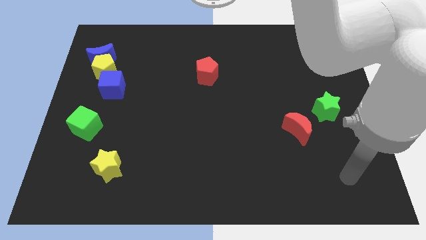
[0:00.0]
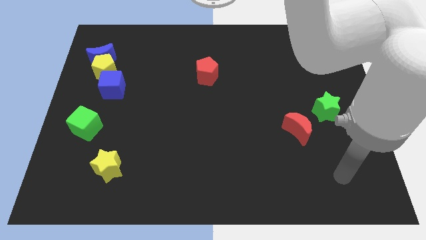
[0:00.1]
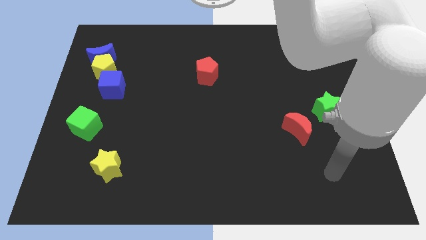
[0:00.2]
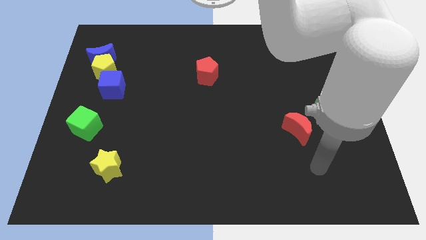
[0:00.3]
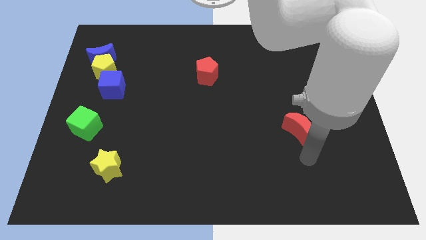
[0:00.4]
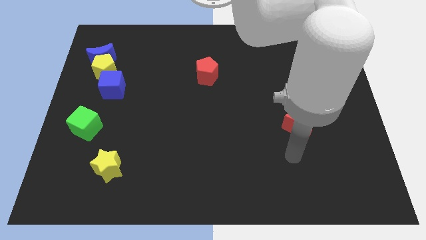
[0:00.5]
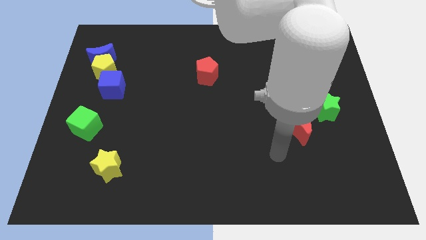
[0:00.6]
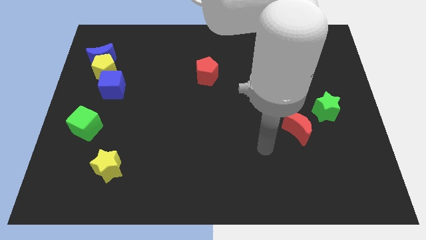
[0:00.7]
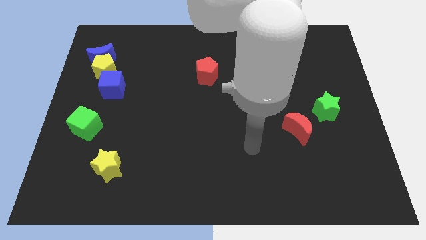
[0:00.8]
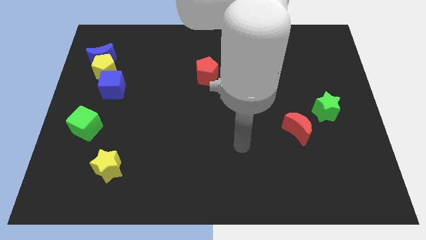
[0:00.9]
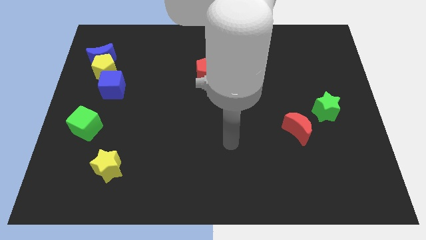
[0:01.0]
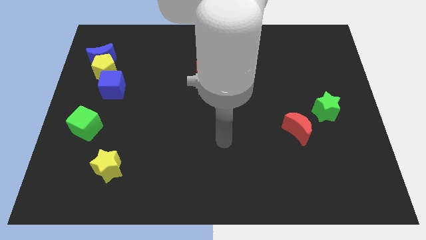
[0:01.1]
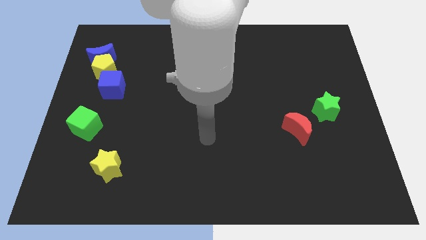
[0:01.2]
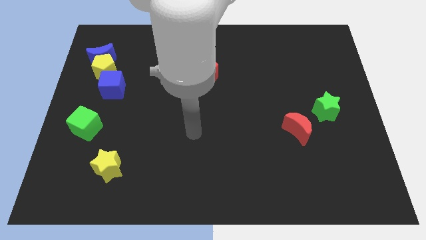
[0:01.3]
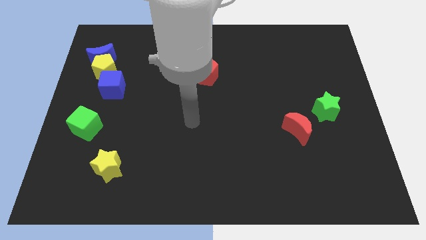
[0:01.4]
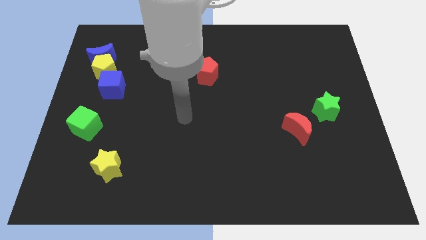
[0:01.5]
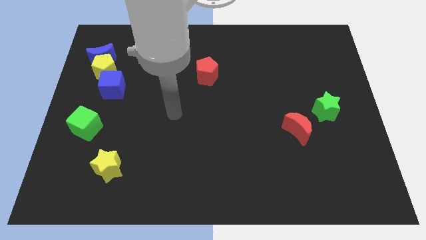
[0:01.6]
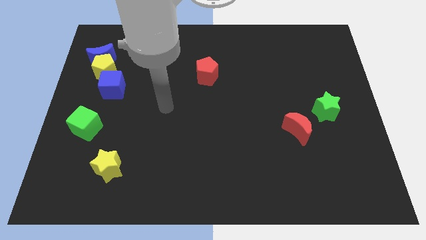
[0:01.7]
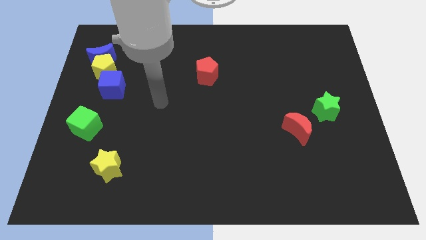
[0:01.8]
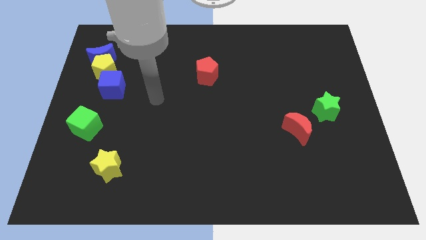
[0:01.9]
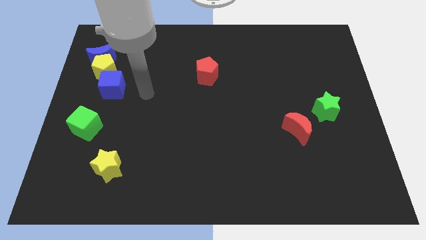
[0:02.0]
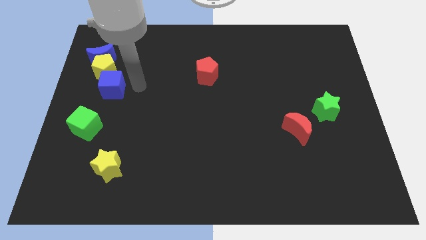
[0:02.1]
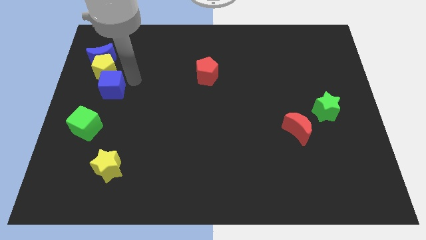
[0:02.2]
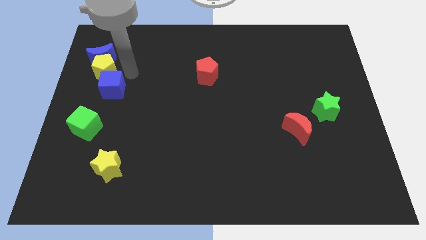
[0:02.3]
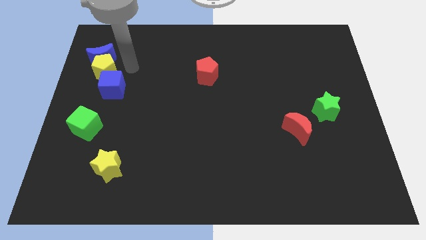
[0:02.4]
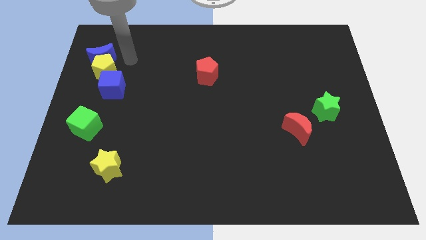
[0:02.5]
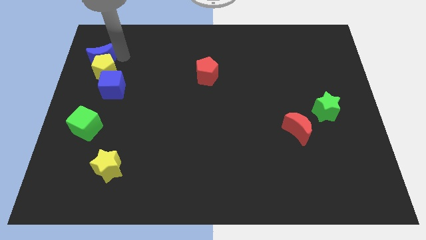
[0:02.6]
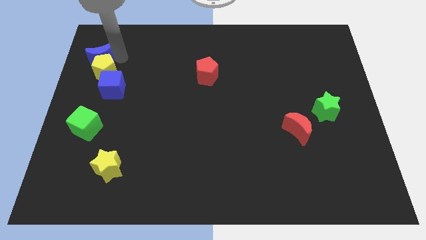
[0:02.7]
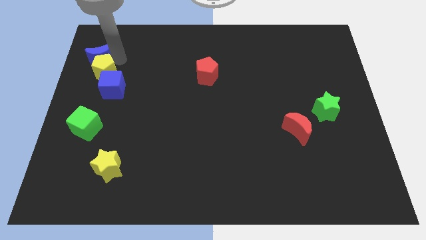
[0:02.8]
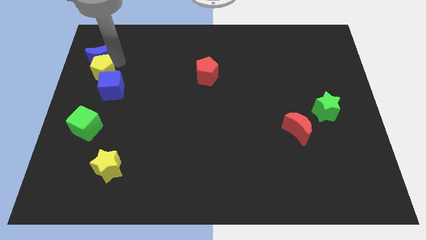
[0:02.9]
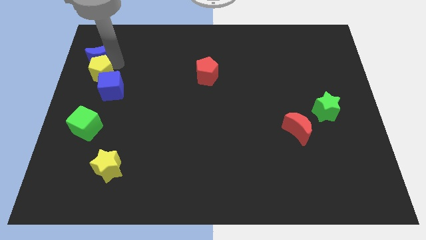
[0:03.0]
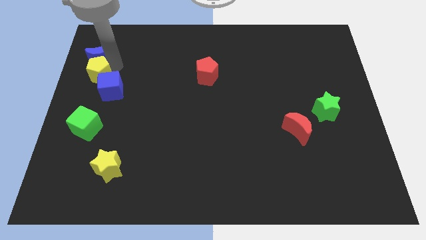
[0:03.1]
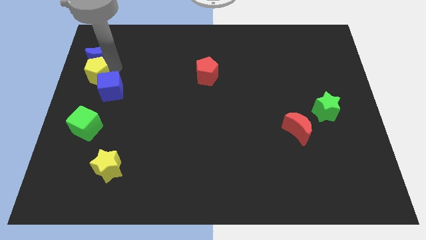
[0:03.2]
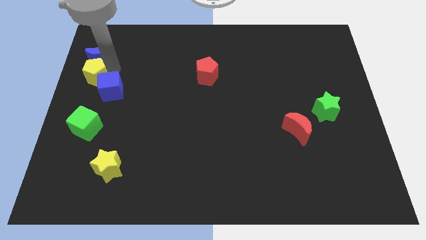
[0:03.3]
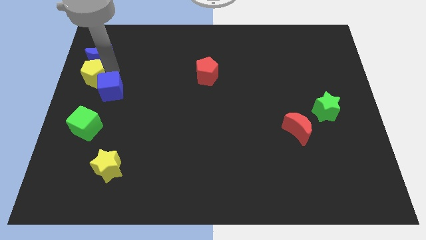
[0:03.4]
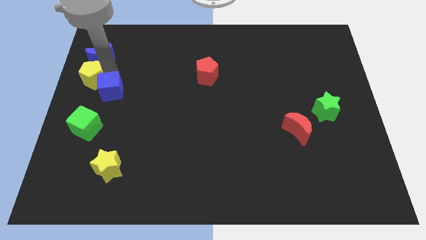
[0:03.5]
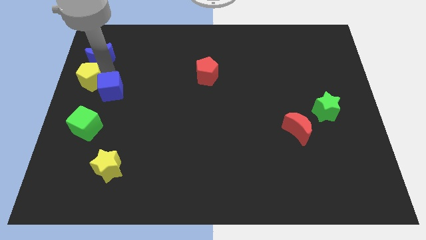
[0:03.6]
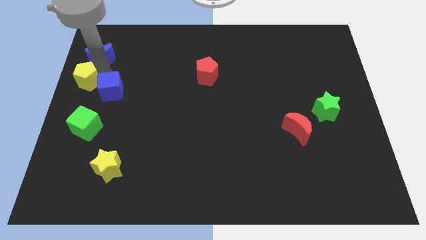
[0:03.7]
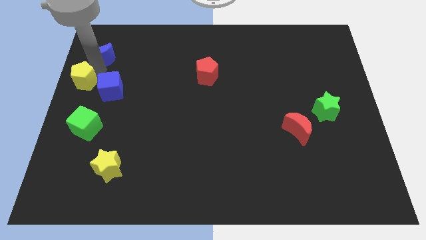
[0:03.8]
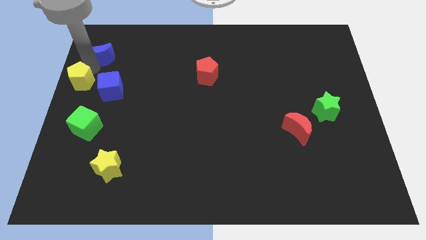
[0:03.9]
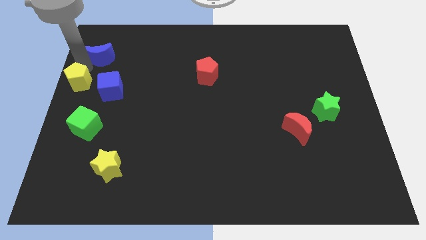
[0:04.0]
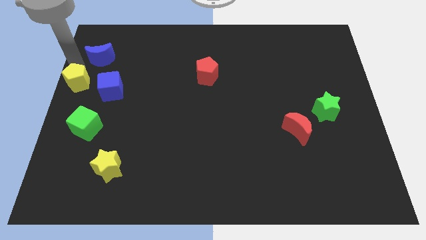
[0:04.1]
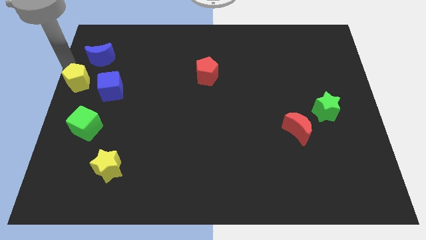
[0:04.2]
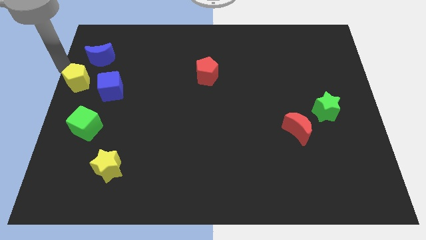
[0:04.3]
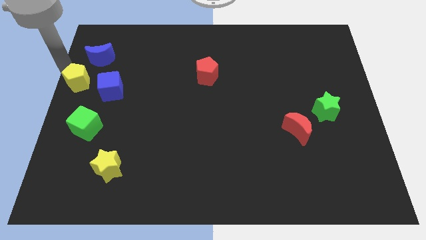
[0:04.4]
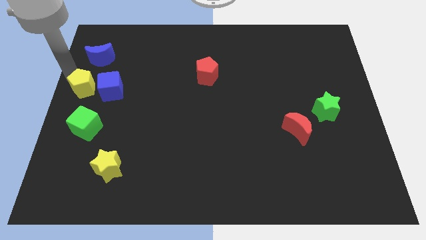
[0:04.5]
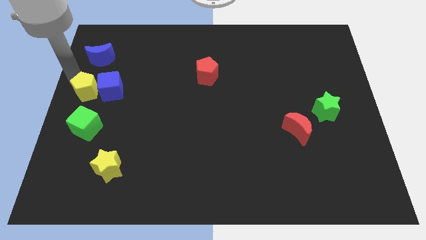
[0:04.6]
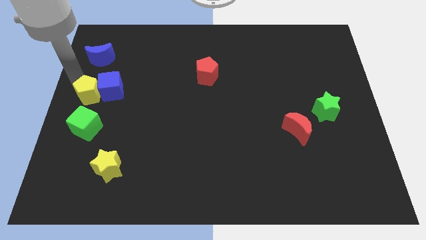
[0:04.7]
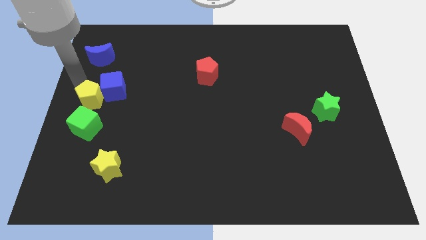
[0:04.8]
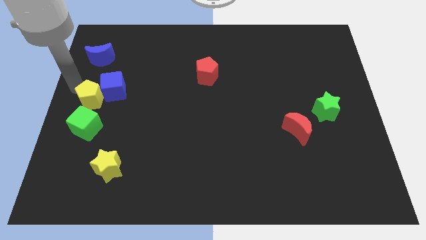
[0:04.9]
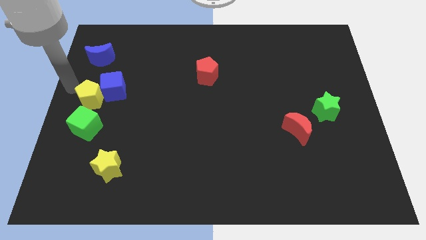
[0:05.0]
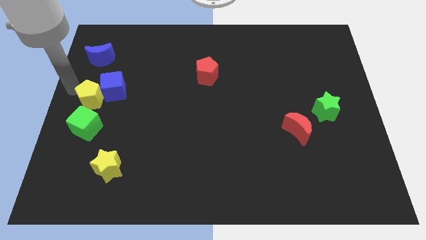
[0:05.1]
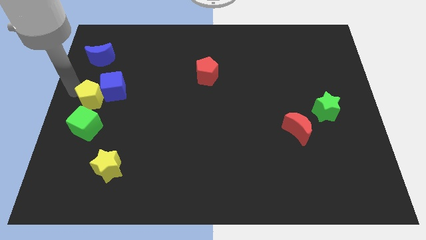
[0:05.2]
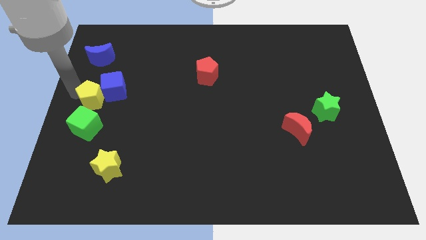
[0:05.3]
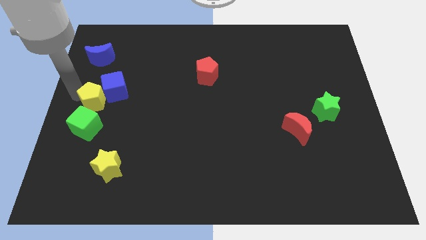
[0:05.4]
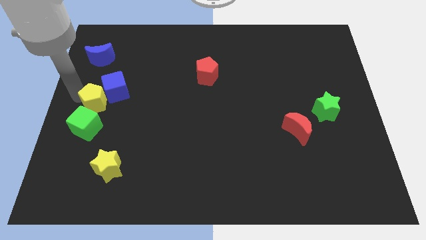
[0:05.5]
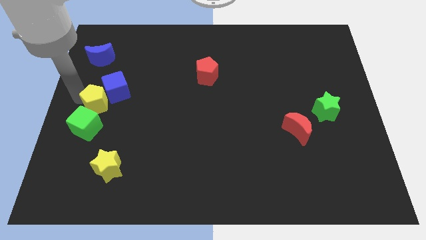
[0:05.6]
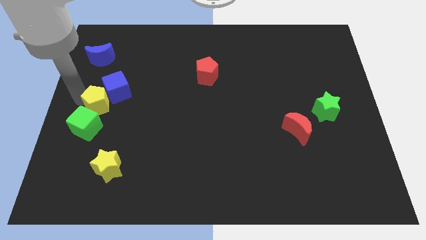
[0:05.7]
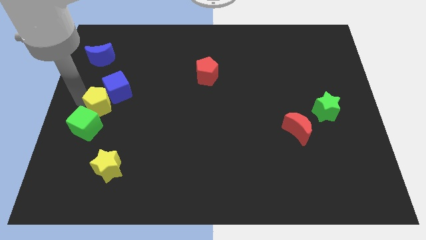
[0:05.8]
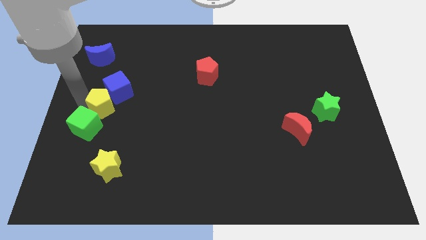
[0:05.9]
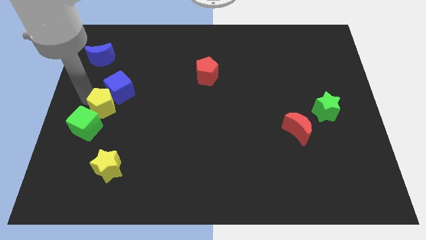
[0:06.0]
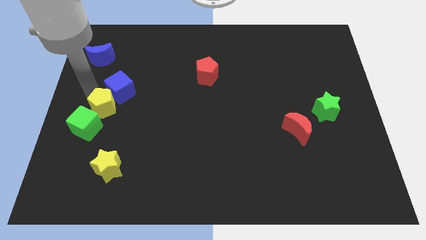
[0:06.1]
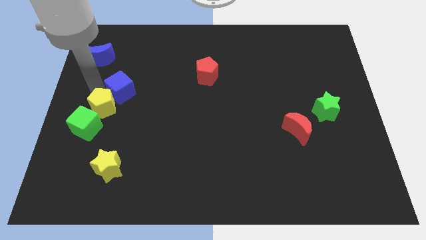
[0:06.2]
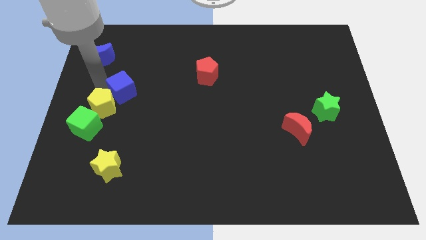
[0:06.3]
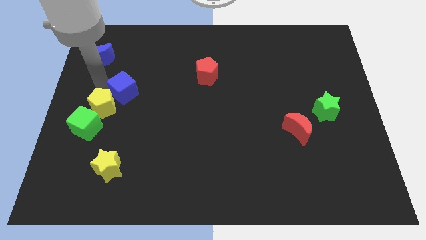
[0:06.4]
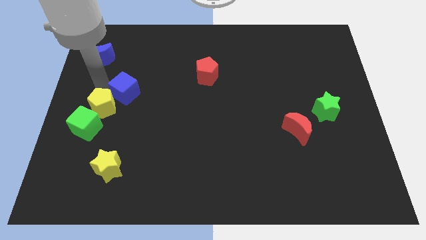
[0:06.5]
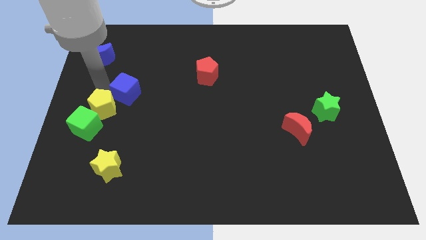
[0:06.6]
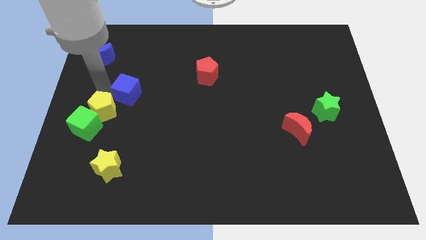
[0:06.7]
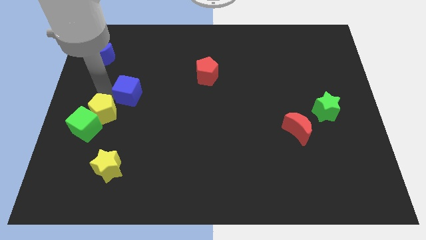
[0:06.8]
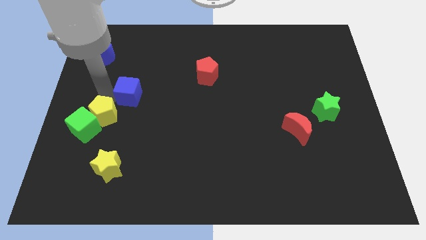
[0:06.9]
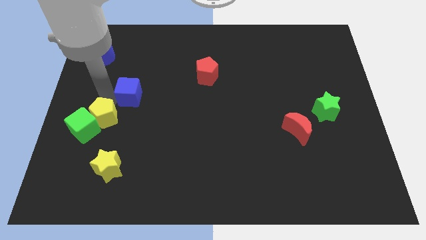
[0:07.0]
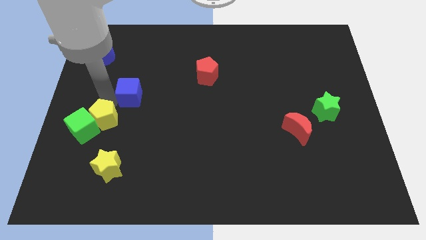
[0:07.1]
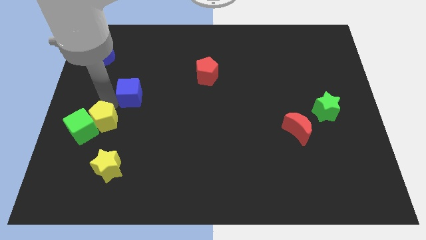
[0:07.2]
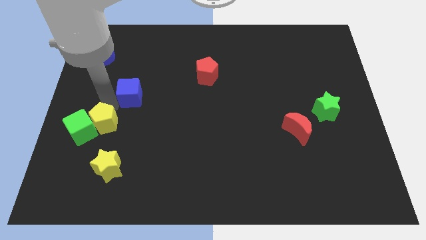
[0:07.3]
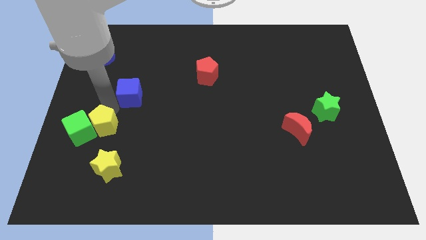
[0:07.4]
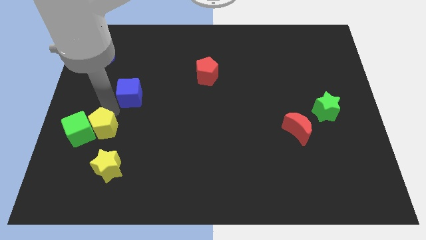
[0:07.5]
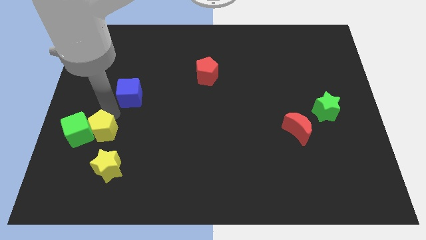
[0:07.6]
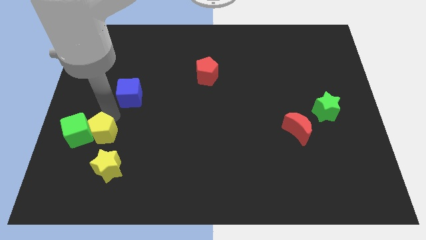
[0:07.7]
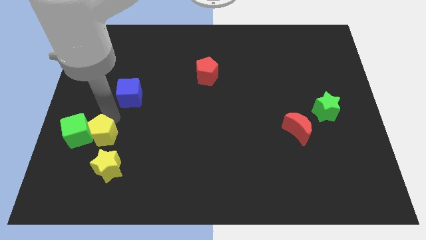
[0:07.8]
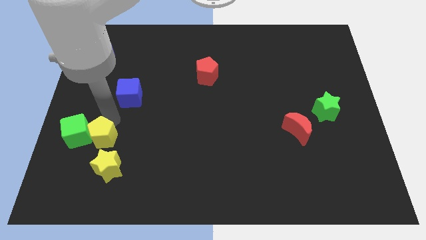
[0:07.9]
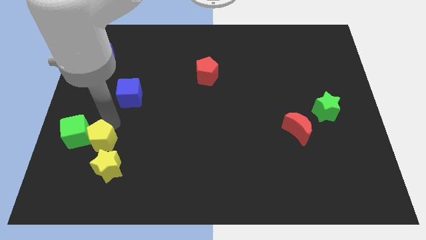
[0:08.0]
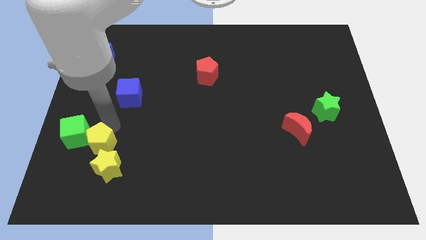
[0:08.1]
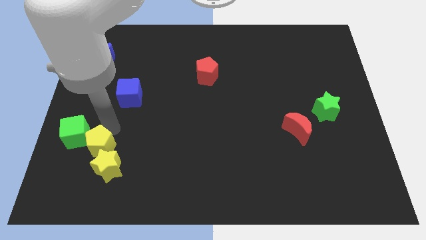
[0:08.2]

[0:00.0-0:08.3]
push the yellow pentagon towards the yellow star
